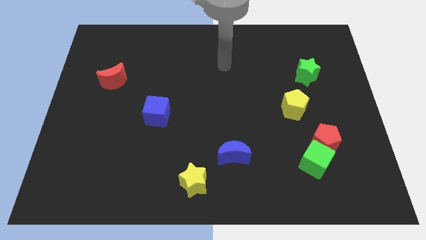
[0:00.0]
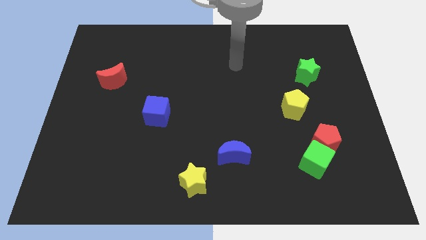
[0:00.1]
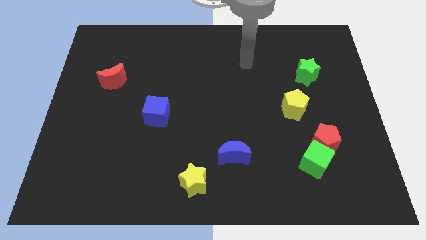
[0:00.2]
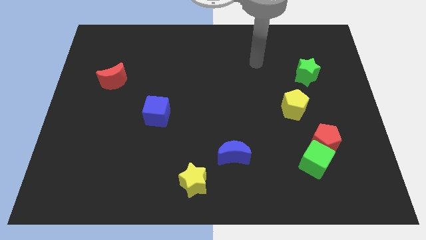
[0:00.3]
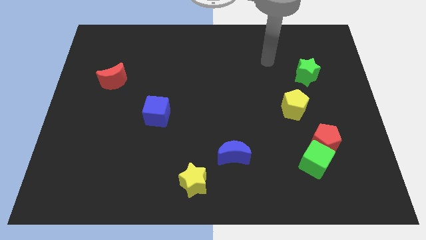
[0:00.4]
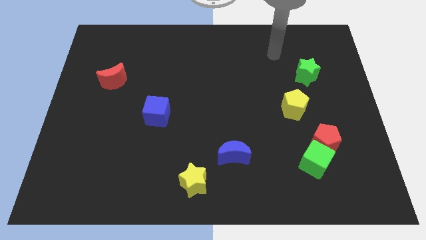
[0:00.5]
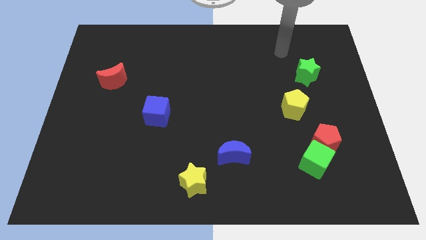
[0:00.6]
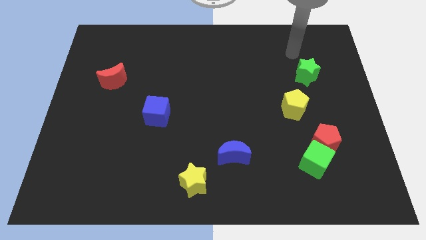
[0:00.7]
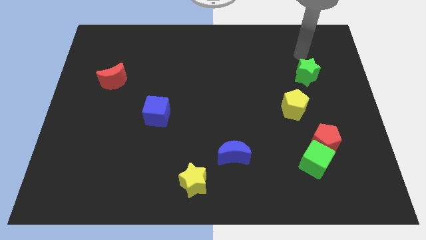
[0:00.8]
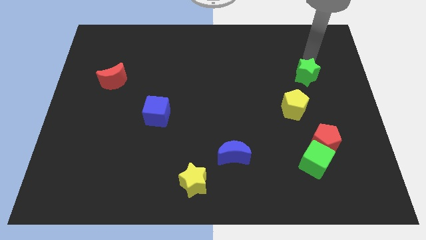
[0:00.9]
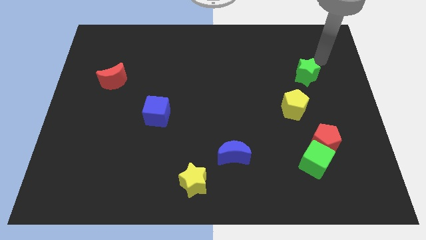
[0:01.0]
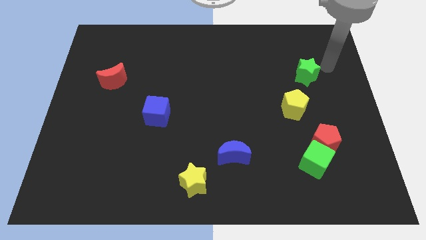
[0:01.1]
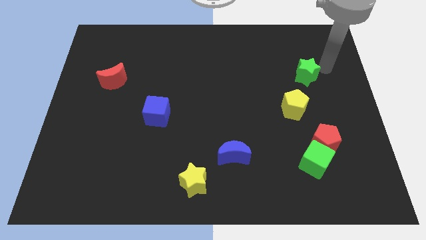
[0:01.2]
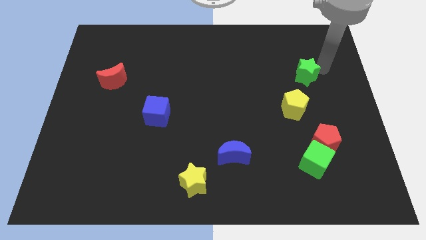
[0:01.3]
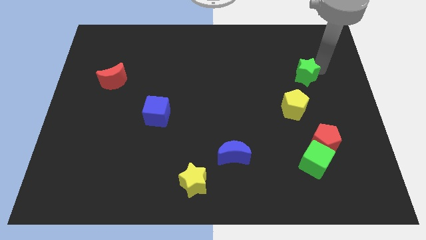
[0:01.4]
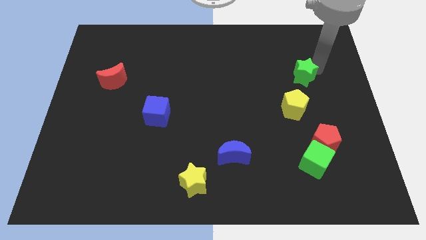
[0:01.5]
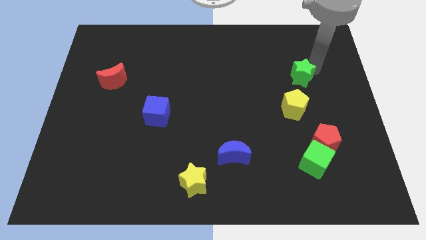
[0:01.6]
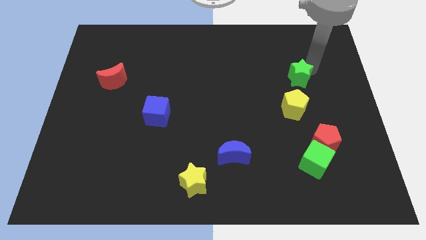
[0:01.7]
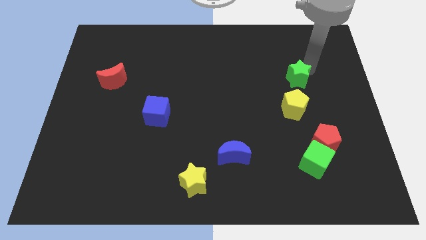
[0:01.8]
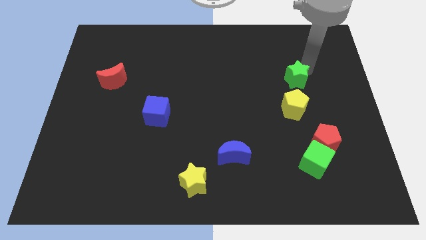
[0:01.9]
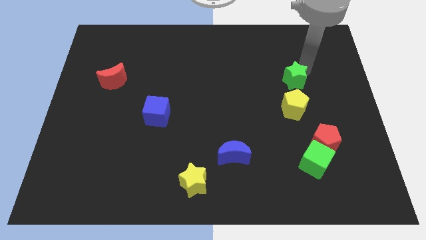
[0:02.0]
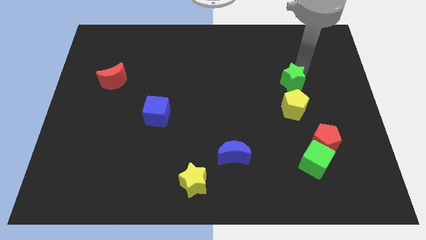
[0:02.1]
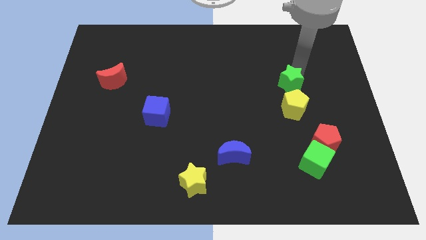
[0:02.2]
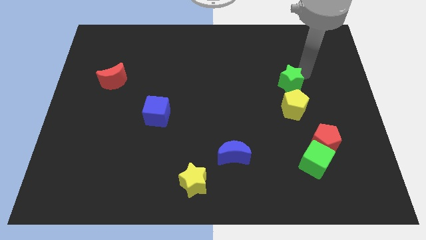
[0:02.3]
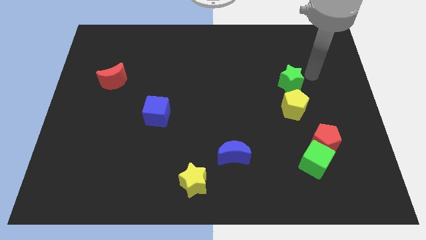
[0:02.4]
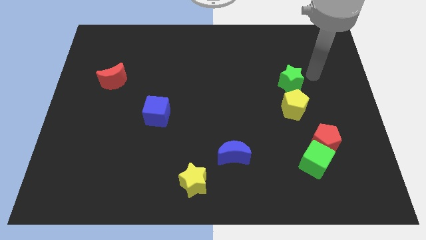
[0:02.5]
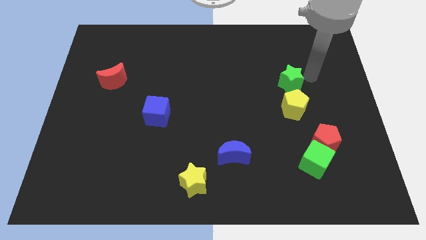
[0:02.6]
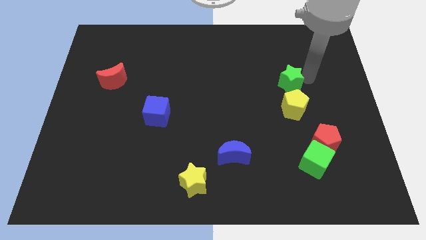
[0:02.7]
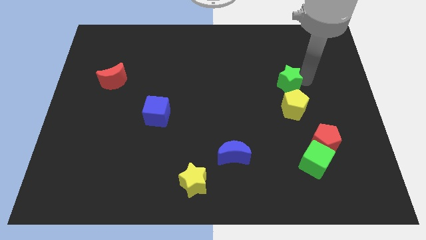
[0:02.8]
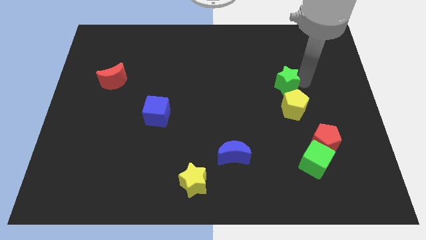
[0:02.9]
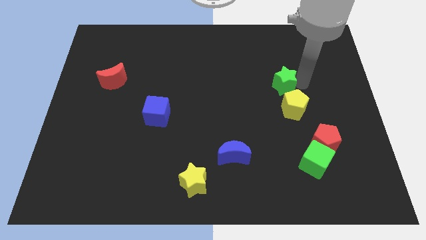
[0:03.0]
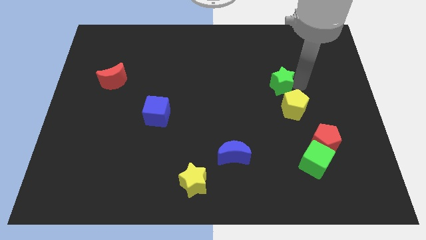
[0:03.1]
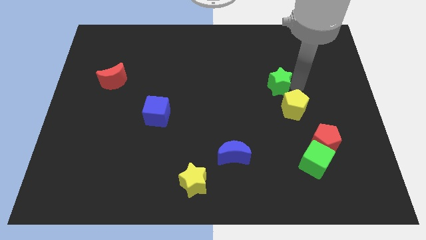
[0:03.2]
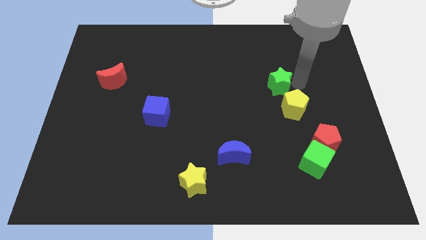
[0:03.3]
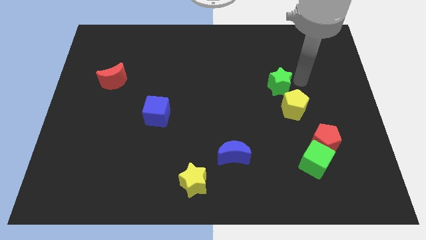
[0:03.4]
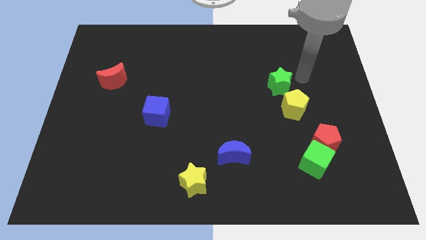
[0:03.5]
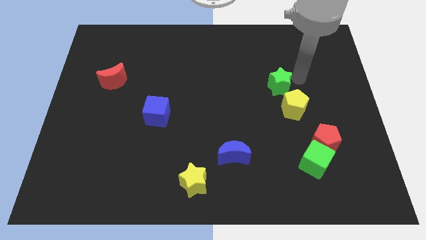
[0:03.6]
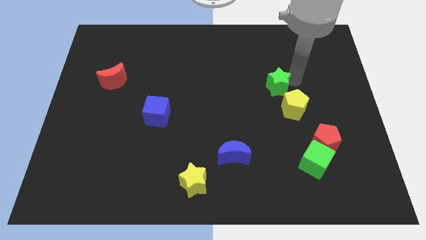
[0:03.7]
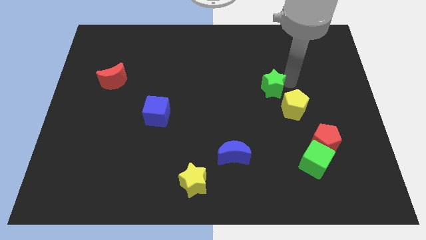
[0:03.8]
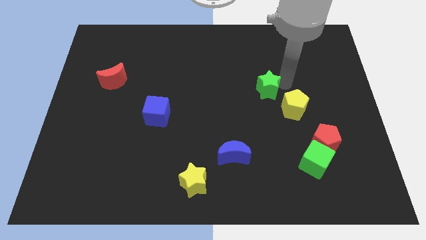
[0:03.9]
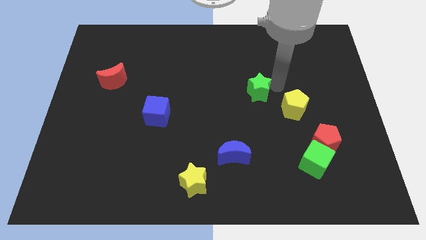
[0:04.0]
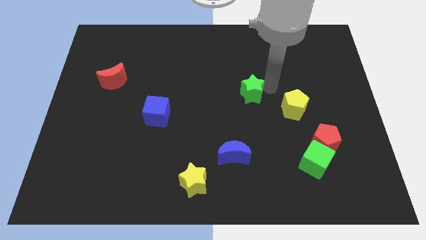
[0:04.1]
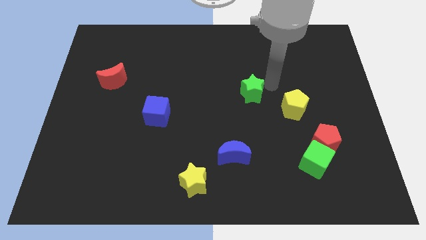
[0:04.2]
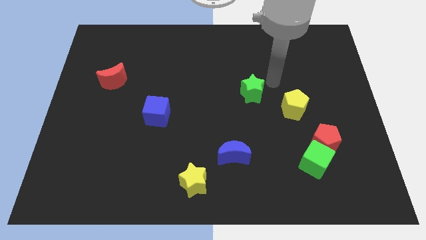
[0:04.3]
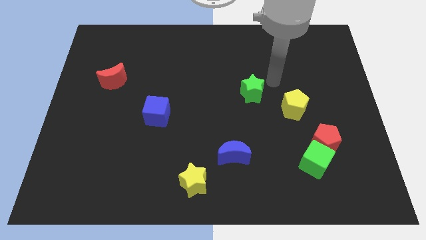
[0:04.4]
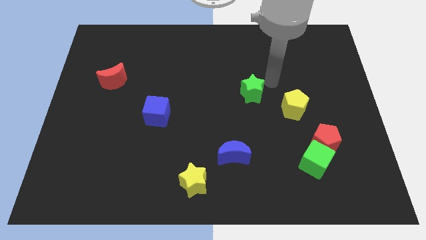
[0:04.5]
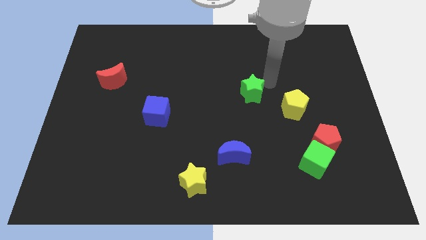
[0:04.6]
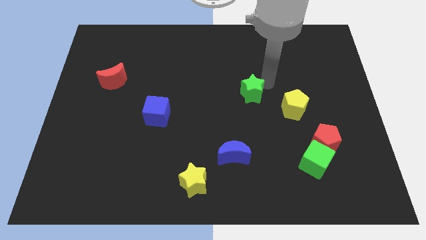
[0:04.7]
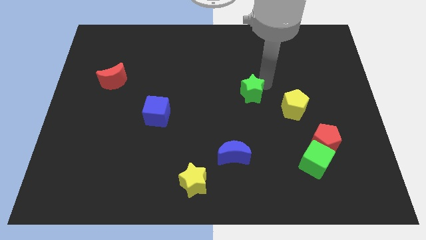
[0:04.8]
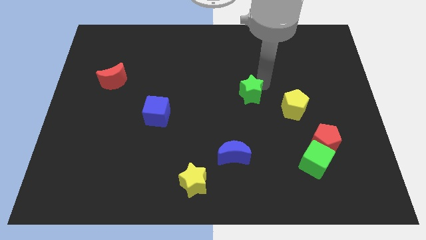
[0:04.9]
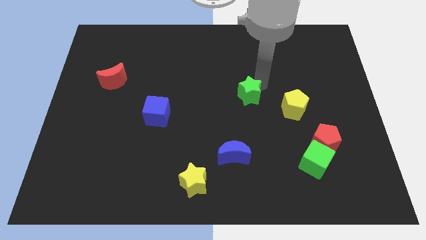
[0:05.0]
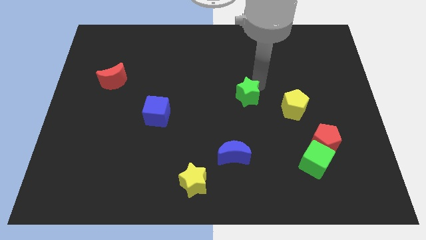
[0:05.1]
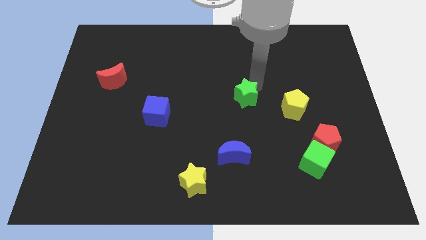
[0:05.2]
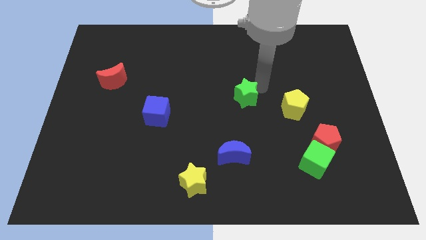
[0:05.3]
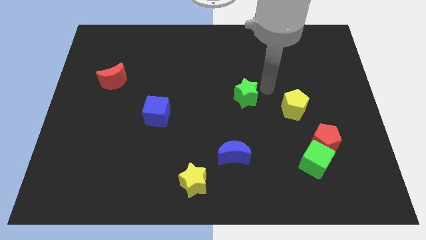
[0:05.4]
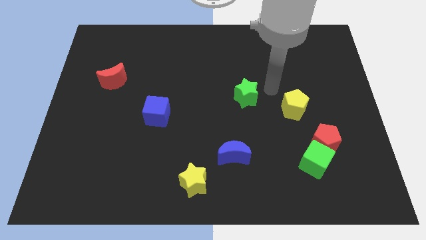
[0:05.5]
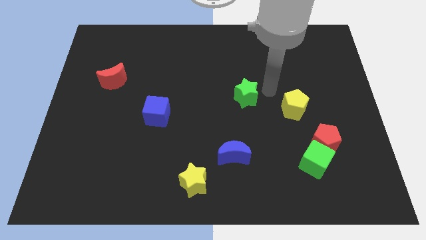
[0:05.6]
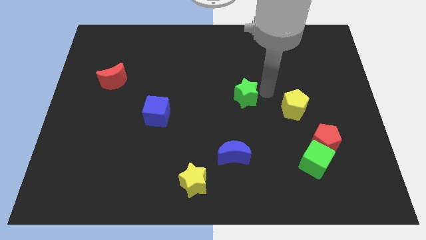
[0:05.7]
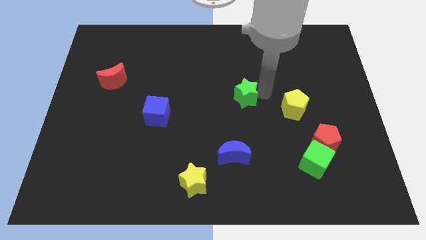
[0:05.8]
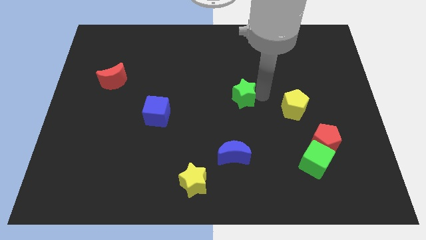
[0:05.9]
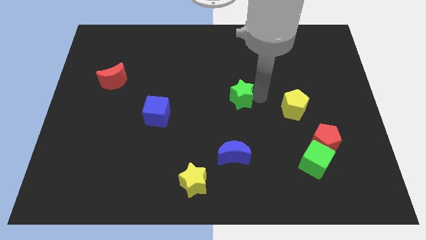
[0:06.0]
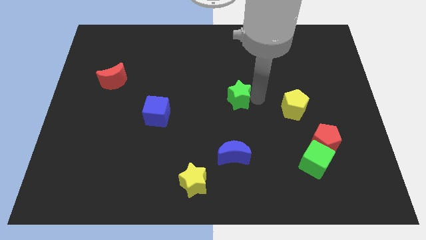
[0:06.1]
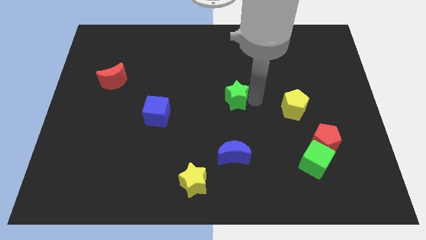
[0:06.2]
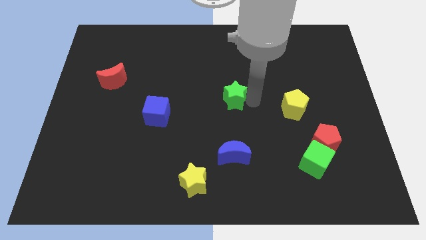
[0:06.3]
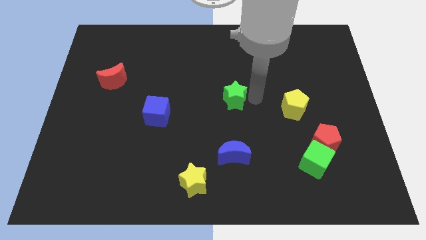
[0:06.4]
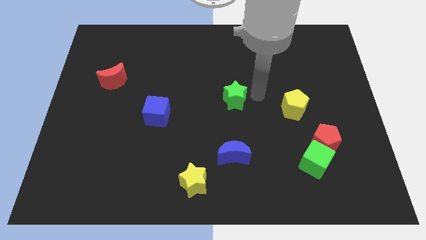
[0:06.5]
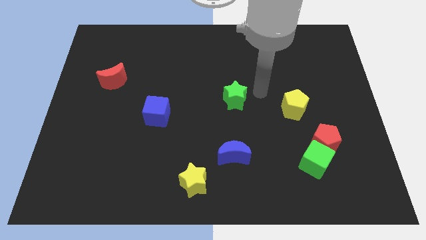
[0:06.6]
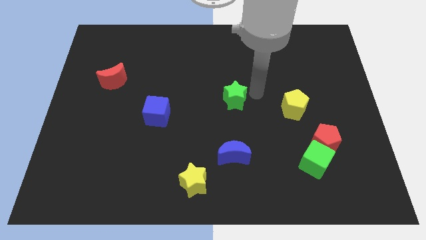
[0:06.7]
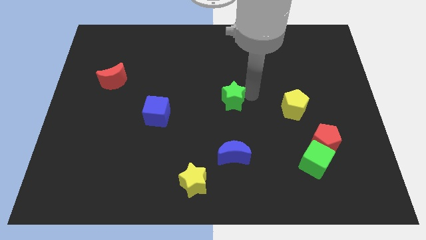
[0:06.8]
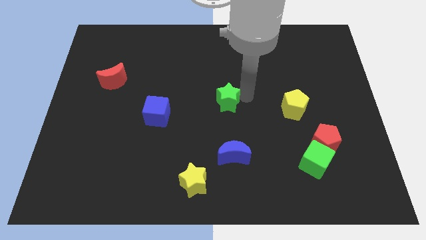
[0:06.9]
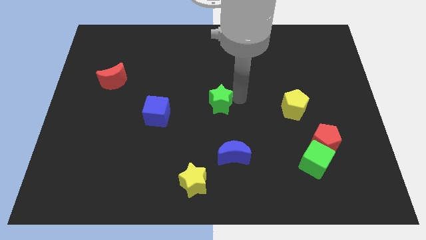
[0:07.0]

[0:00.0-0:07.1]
push the green star to the right side of the blue cube
